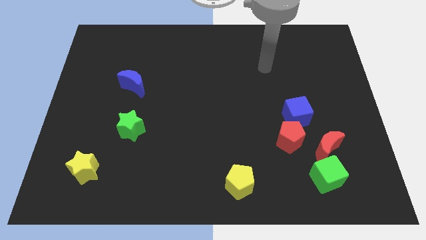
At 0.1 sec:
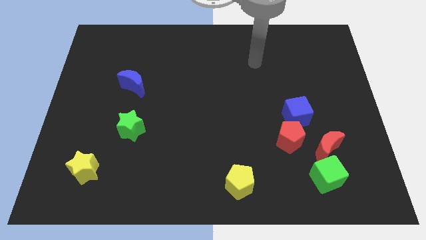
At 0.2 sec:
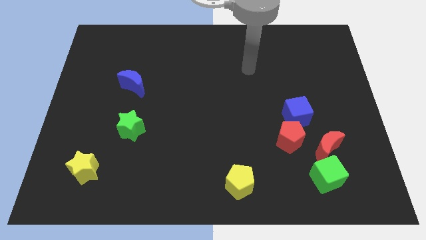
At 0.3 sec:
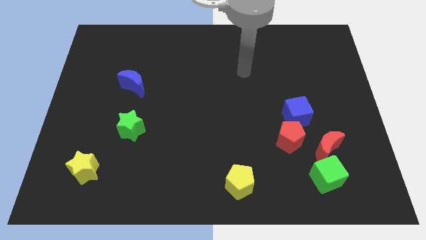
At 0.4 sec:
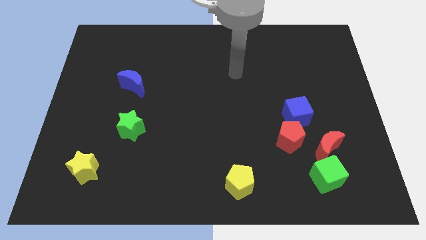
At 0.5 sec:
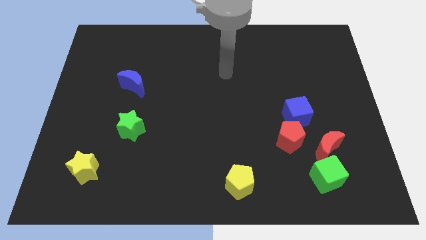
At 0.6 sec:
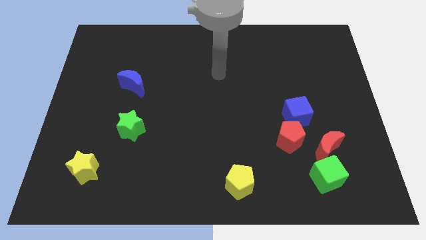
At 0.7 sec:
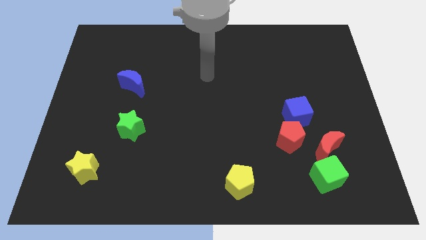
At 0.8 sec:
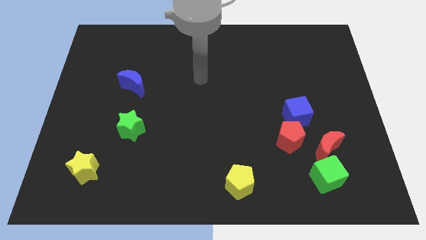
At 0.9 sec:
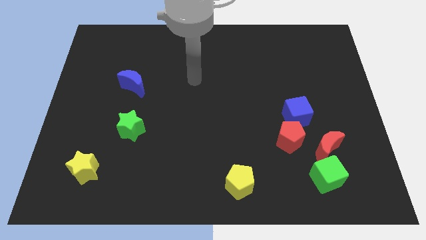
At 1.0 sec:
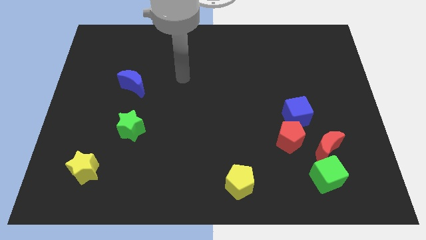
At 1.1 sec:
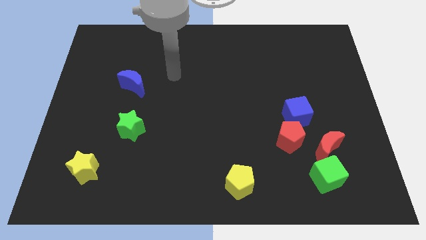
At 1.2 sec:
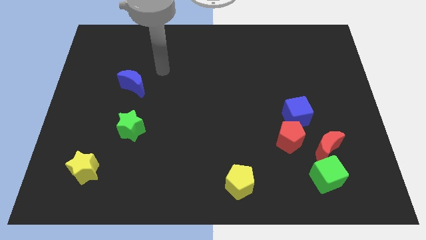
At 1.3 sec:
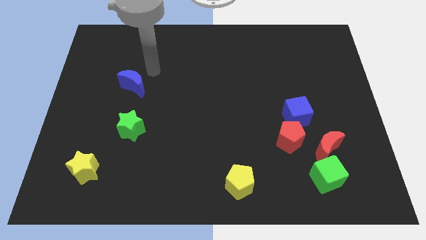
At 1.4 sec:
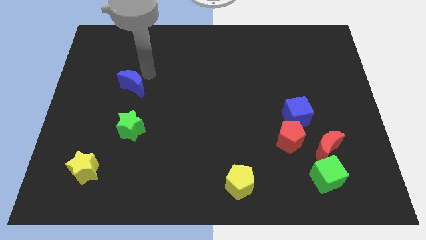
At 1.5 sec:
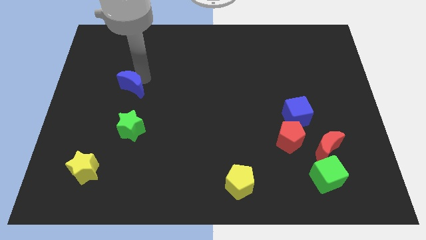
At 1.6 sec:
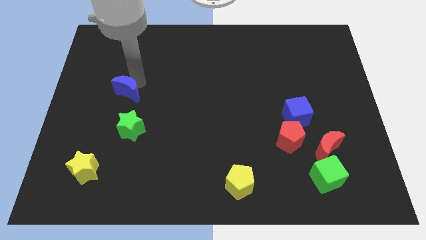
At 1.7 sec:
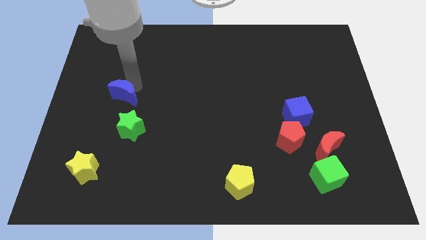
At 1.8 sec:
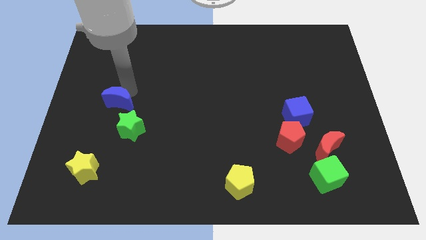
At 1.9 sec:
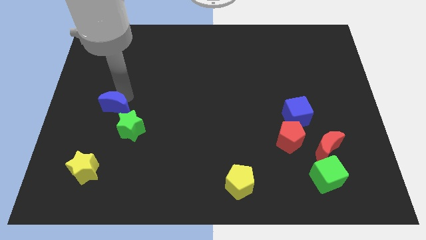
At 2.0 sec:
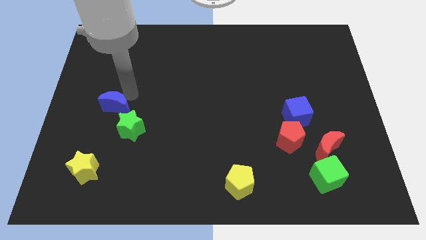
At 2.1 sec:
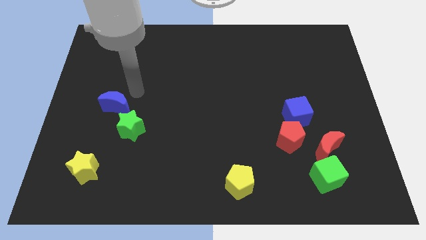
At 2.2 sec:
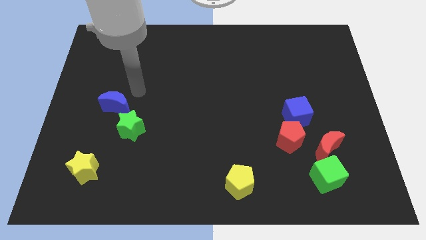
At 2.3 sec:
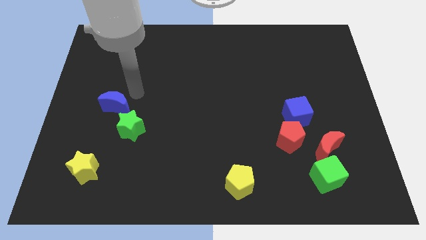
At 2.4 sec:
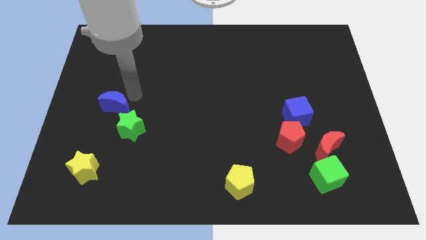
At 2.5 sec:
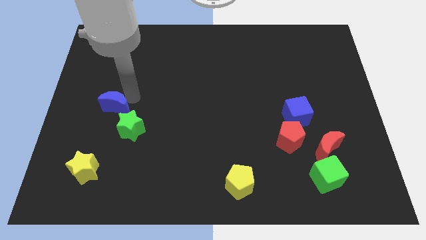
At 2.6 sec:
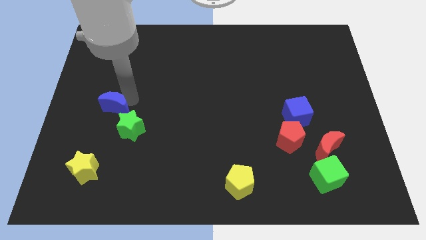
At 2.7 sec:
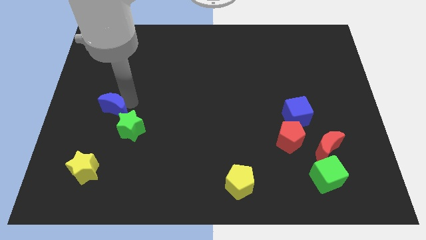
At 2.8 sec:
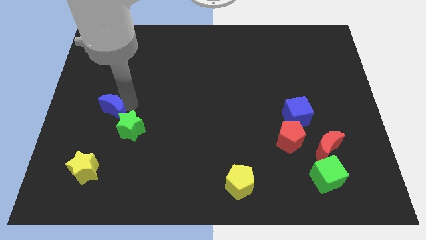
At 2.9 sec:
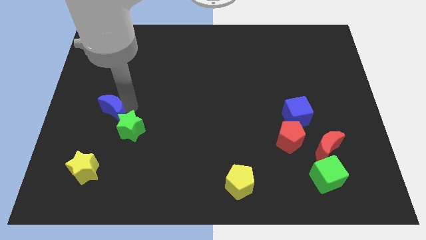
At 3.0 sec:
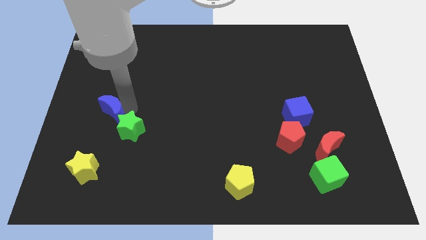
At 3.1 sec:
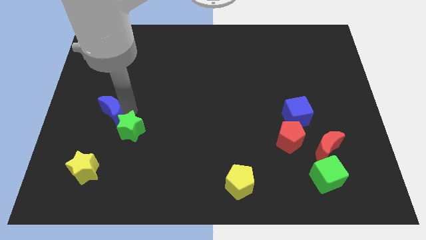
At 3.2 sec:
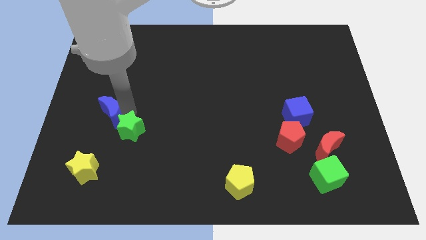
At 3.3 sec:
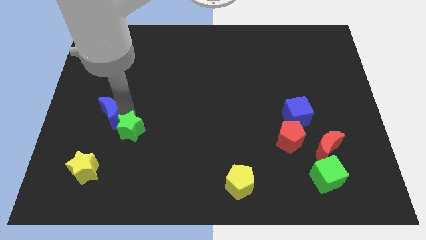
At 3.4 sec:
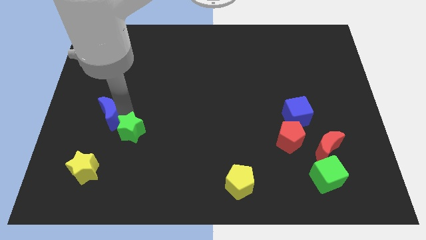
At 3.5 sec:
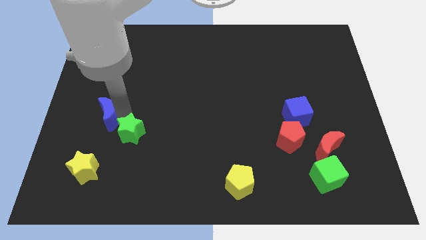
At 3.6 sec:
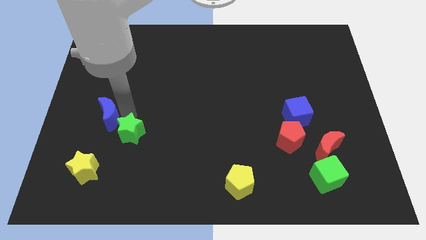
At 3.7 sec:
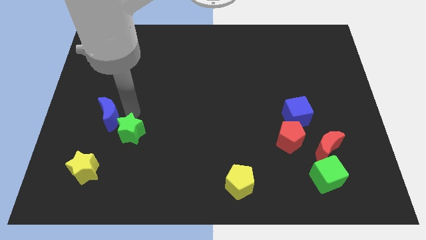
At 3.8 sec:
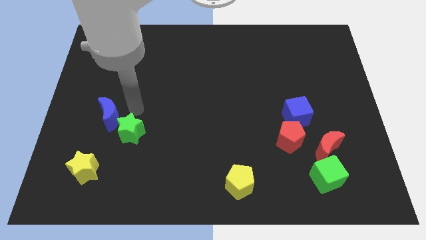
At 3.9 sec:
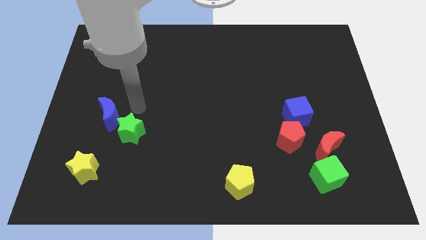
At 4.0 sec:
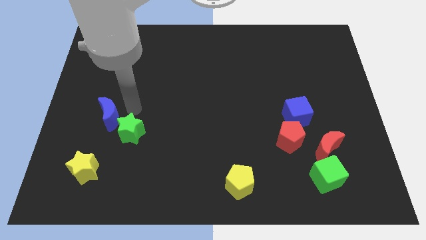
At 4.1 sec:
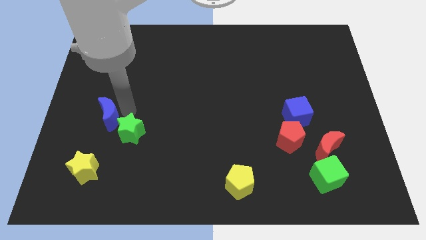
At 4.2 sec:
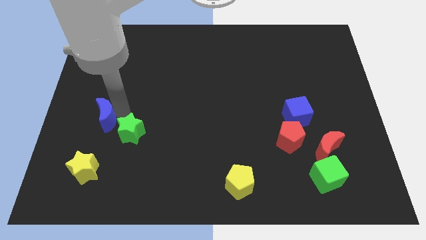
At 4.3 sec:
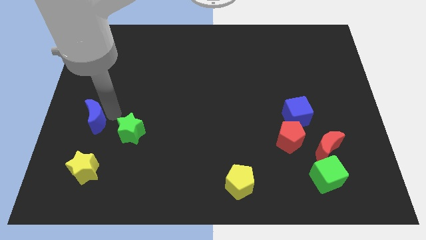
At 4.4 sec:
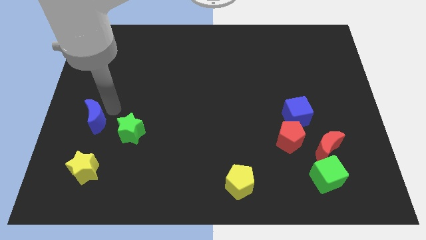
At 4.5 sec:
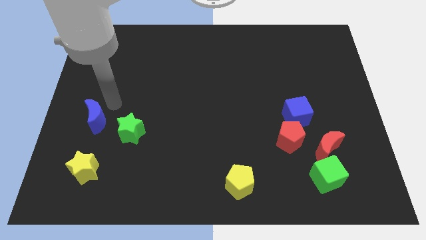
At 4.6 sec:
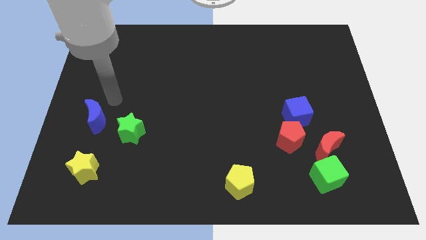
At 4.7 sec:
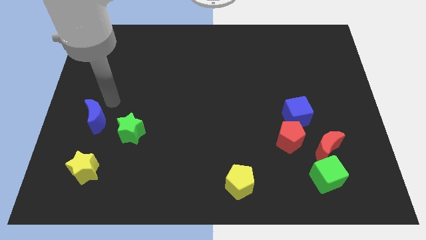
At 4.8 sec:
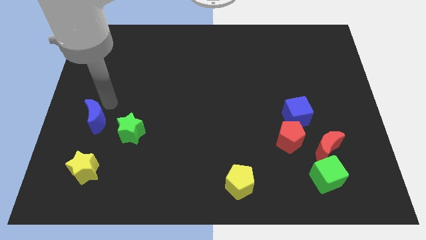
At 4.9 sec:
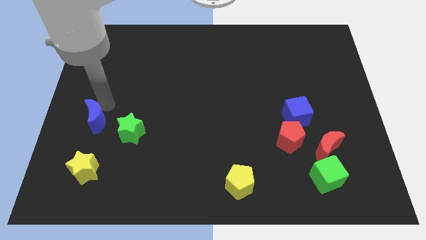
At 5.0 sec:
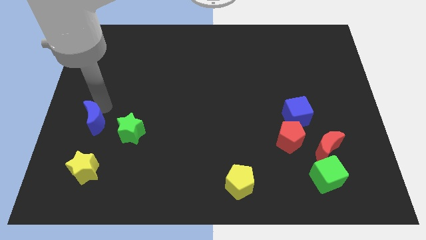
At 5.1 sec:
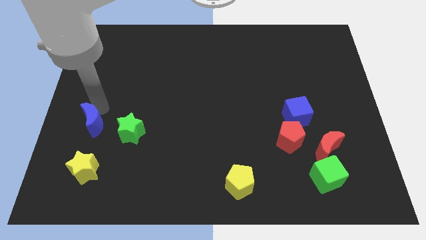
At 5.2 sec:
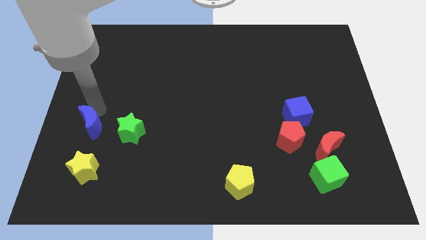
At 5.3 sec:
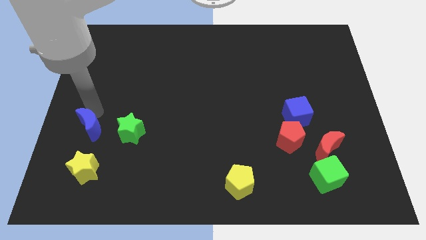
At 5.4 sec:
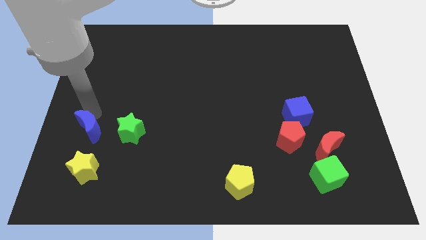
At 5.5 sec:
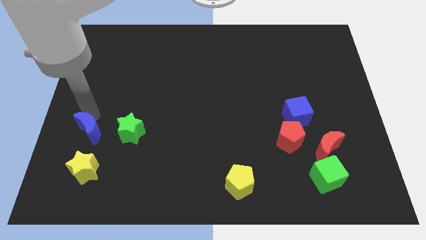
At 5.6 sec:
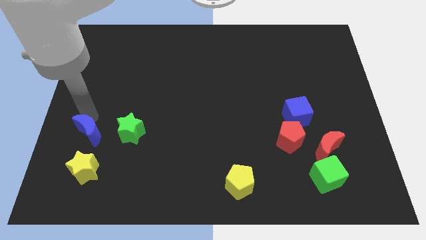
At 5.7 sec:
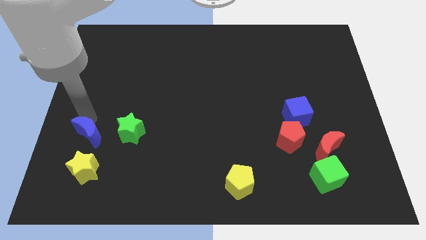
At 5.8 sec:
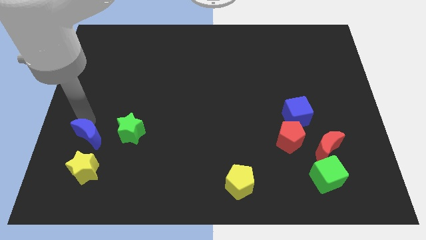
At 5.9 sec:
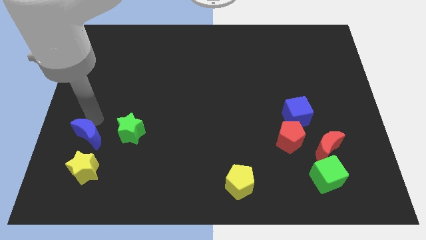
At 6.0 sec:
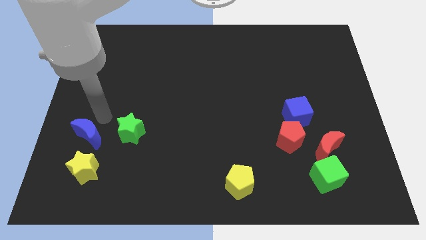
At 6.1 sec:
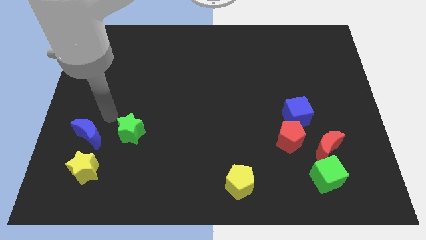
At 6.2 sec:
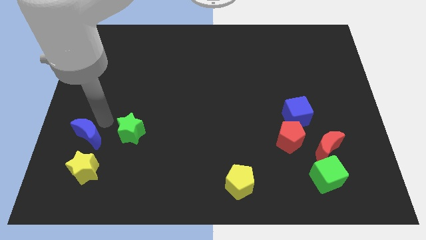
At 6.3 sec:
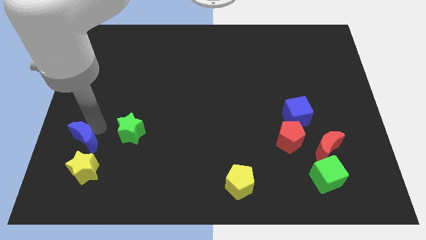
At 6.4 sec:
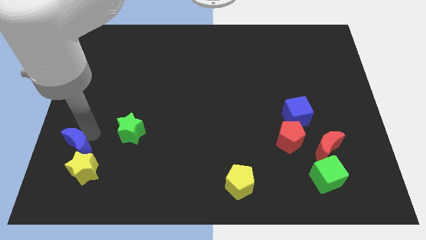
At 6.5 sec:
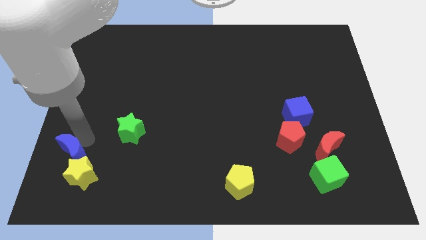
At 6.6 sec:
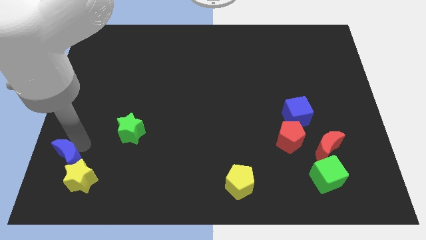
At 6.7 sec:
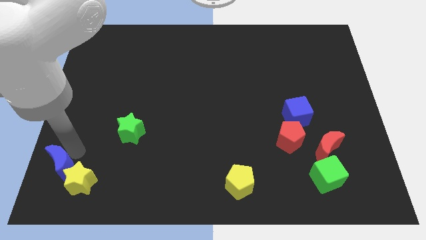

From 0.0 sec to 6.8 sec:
slide the blue moon to the lower left corner

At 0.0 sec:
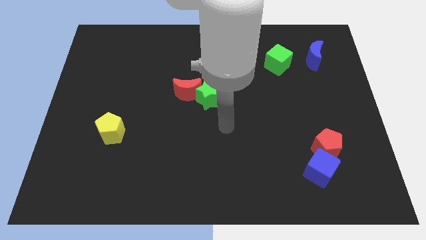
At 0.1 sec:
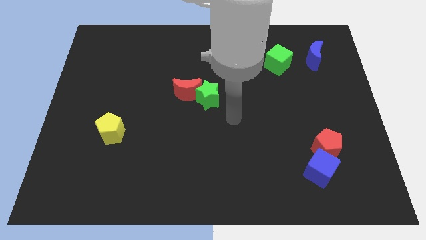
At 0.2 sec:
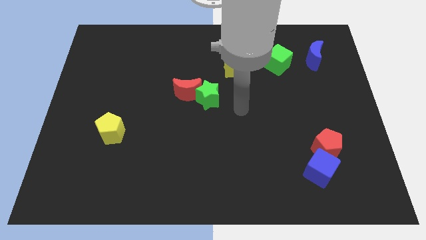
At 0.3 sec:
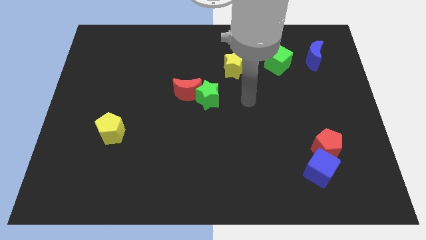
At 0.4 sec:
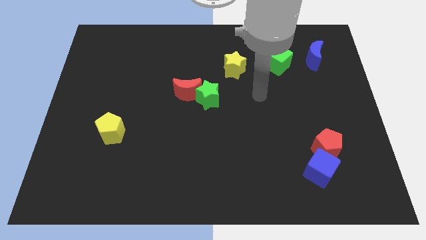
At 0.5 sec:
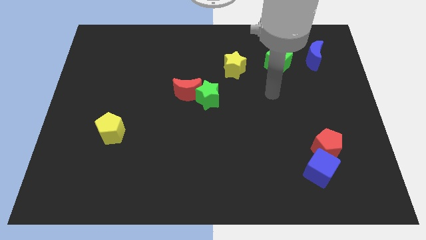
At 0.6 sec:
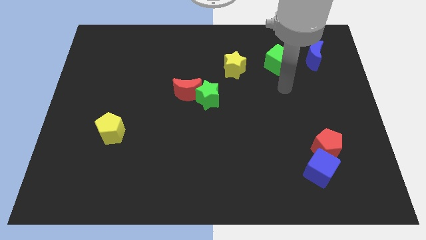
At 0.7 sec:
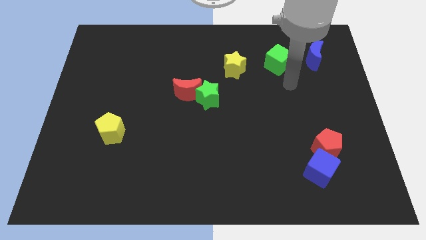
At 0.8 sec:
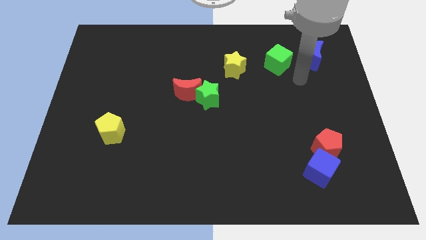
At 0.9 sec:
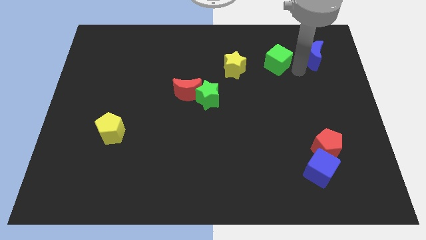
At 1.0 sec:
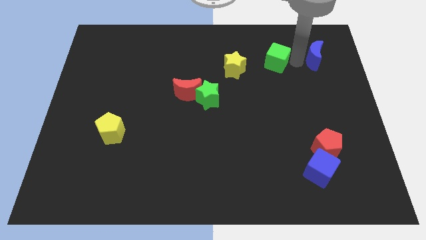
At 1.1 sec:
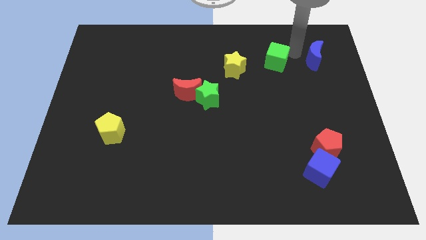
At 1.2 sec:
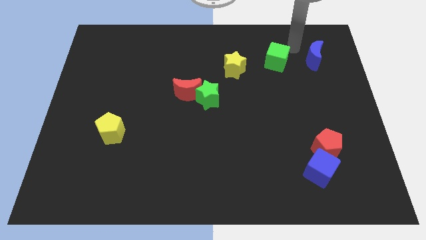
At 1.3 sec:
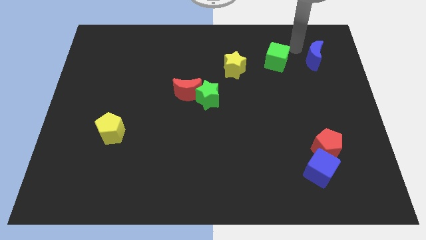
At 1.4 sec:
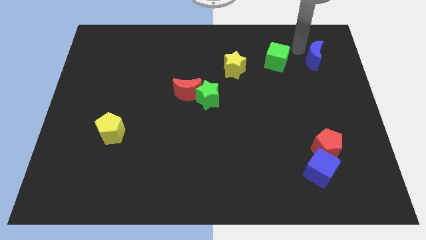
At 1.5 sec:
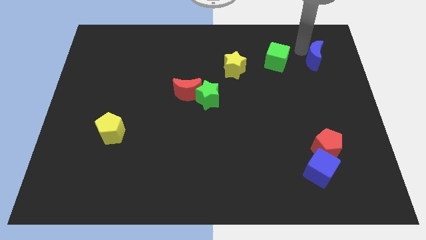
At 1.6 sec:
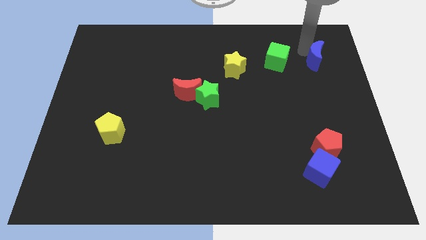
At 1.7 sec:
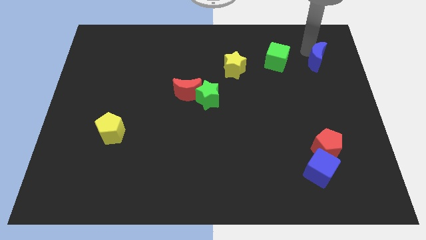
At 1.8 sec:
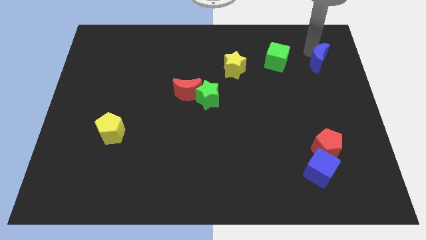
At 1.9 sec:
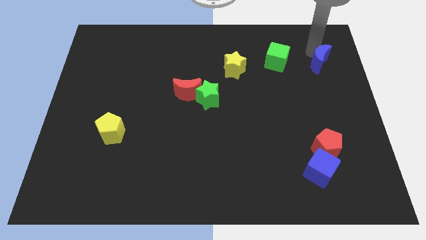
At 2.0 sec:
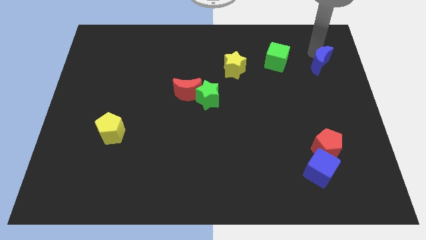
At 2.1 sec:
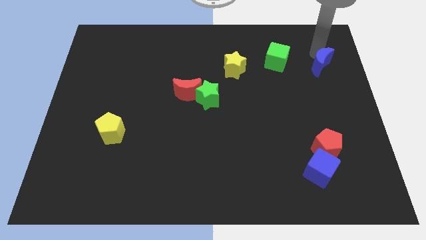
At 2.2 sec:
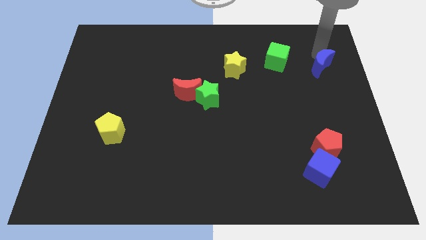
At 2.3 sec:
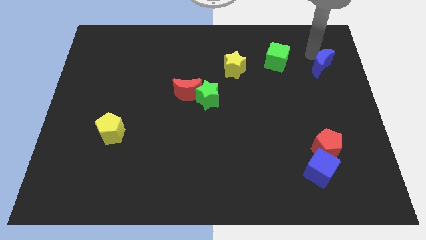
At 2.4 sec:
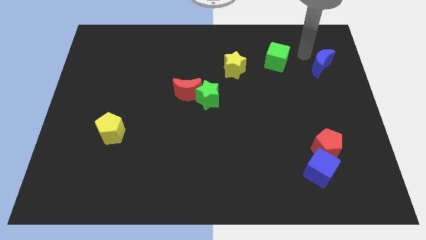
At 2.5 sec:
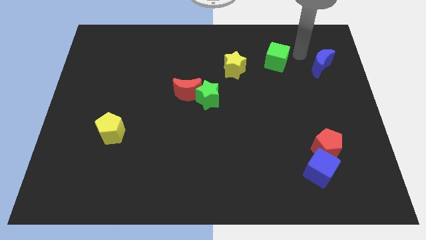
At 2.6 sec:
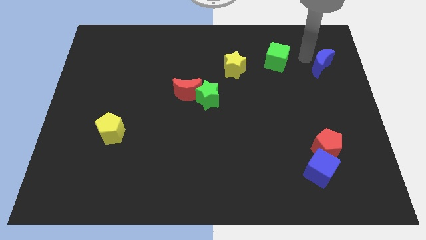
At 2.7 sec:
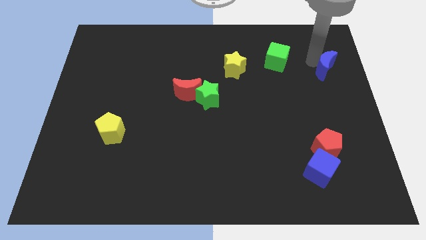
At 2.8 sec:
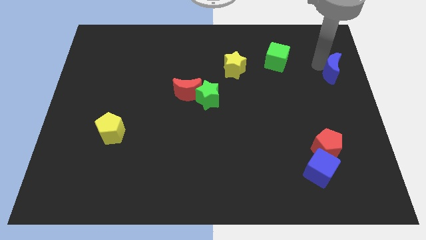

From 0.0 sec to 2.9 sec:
slide the blue moon to the right side
